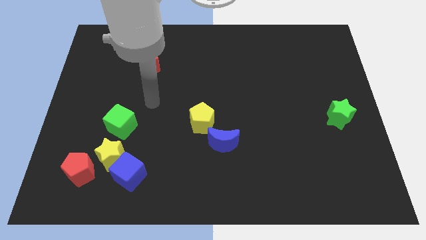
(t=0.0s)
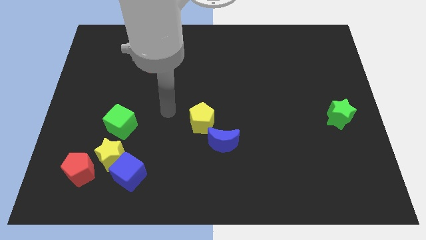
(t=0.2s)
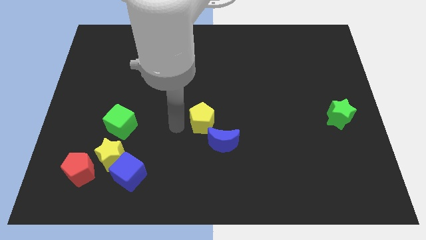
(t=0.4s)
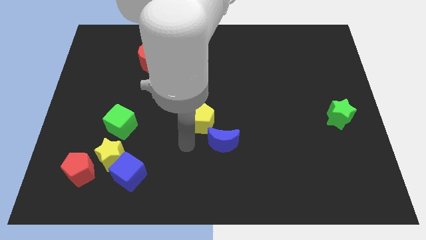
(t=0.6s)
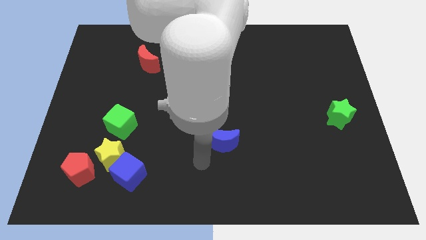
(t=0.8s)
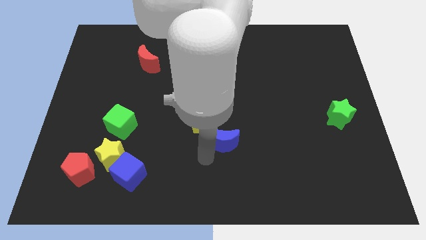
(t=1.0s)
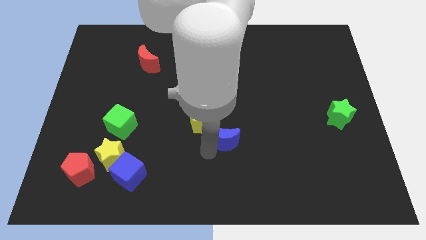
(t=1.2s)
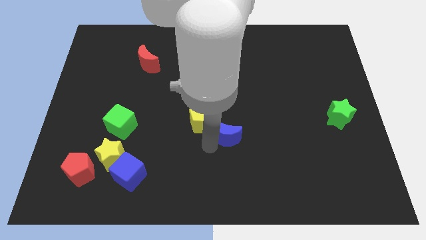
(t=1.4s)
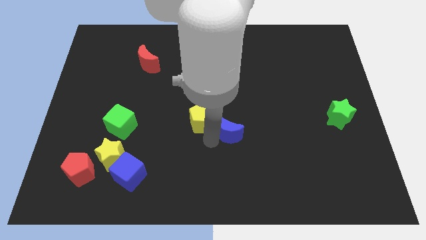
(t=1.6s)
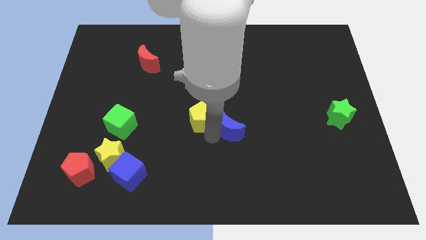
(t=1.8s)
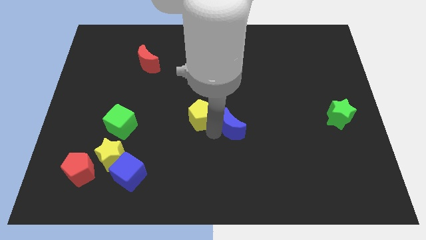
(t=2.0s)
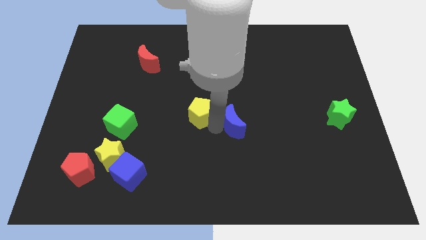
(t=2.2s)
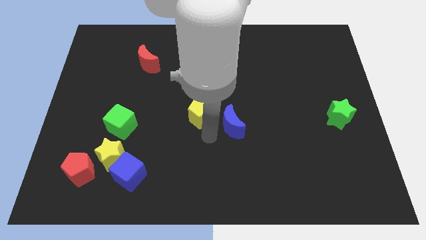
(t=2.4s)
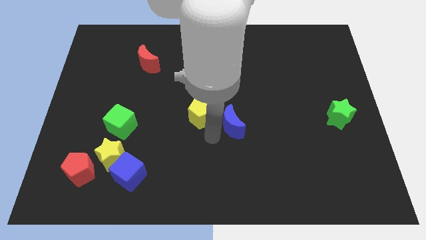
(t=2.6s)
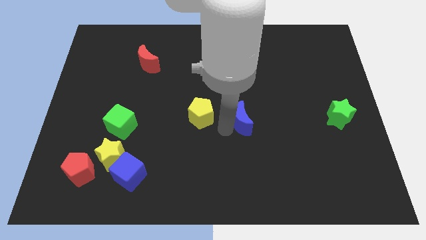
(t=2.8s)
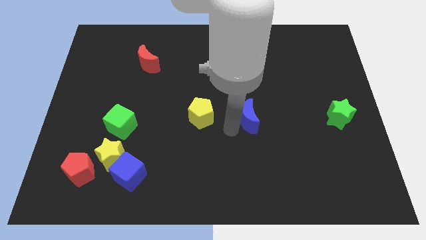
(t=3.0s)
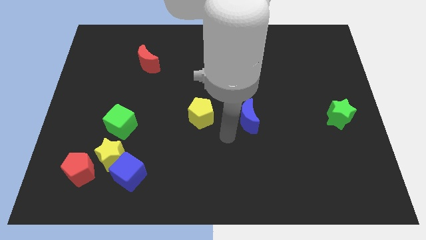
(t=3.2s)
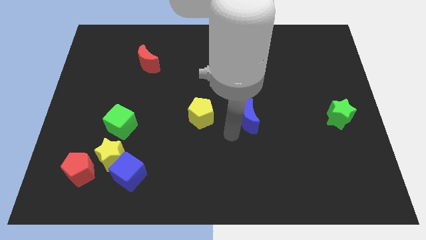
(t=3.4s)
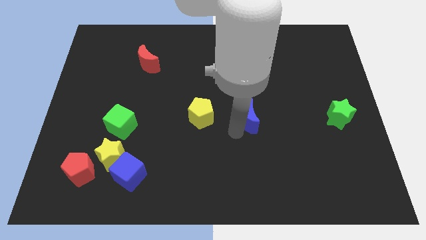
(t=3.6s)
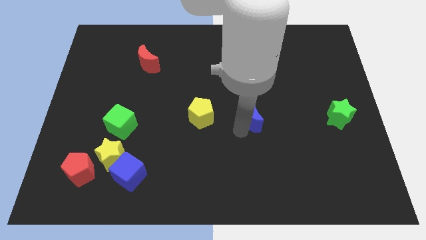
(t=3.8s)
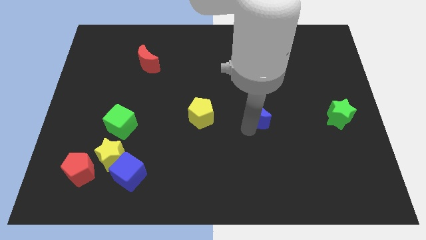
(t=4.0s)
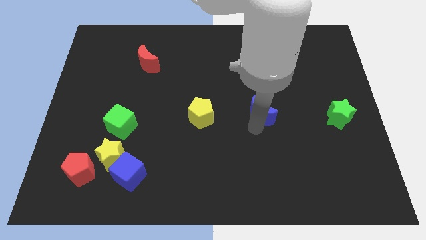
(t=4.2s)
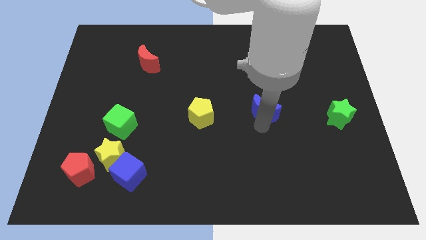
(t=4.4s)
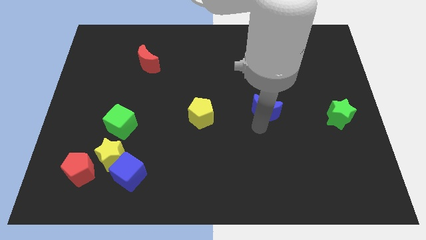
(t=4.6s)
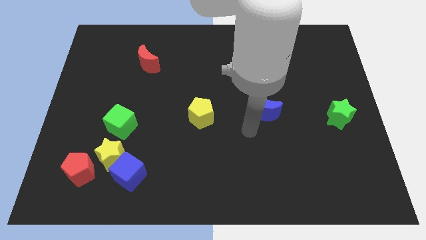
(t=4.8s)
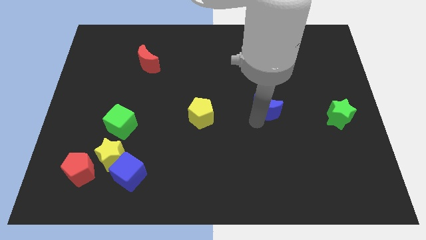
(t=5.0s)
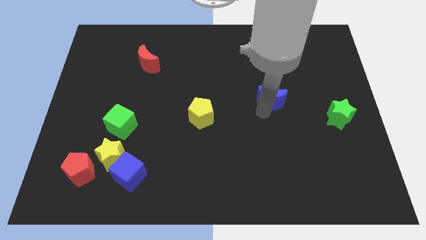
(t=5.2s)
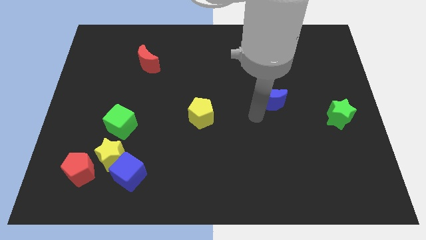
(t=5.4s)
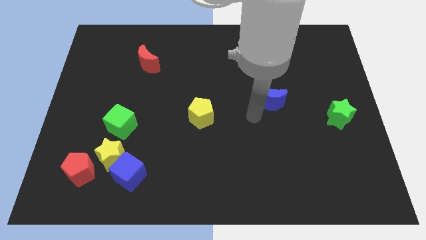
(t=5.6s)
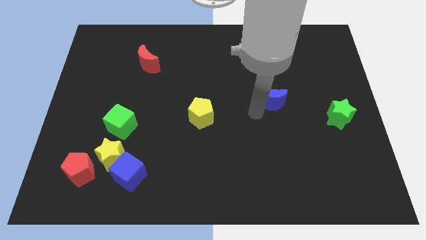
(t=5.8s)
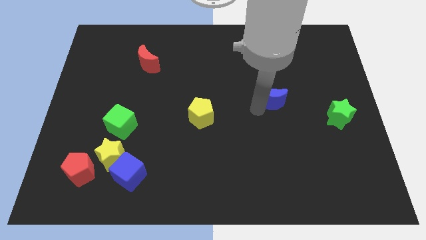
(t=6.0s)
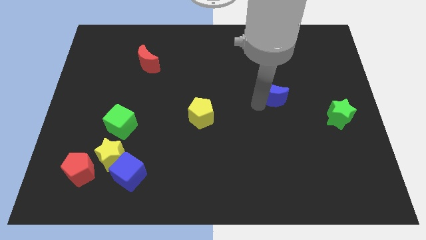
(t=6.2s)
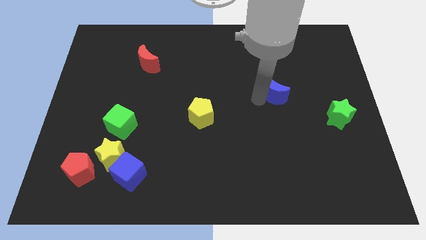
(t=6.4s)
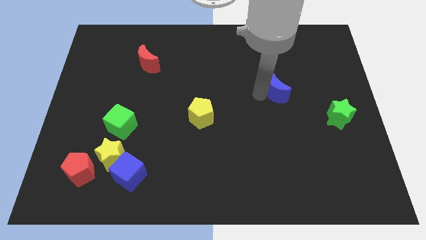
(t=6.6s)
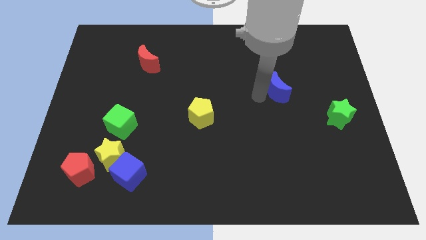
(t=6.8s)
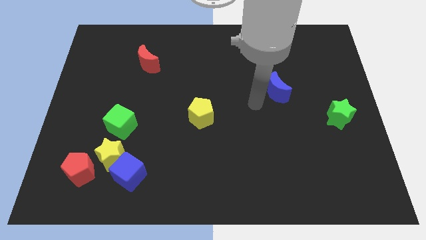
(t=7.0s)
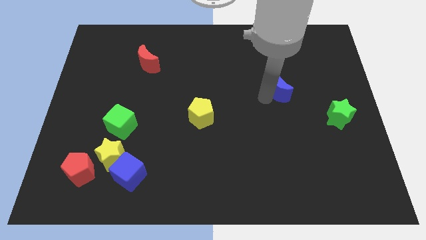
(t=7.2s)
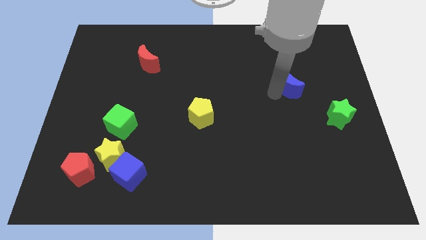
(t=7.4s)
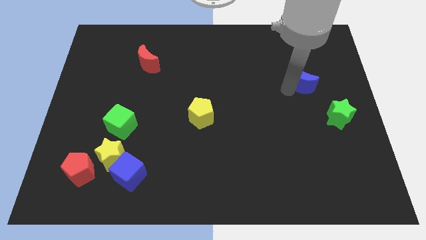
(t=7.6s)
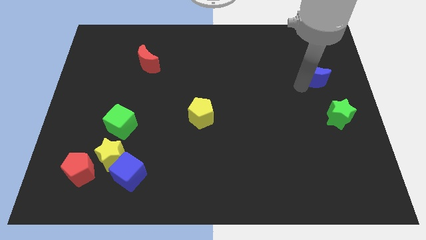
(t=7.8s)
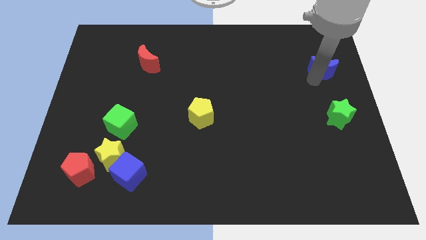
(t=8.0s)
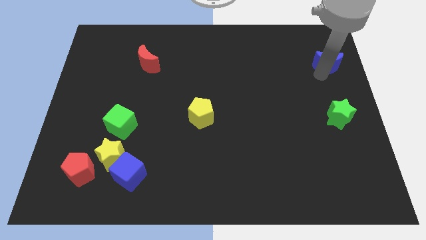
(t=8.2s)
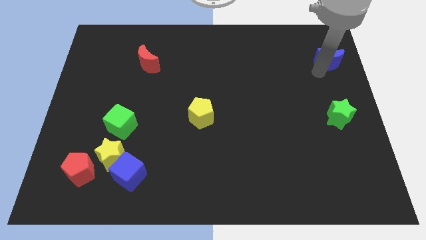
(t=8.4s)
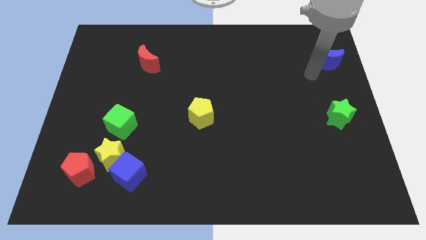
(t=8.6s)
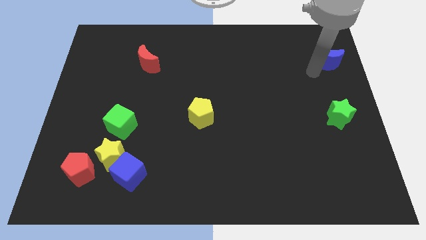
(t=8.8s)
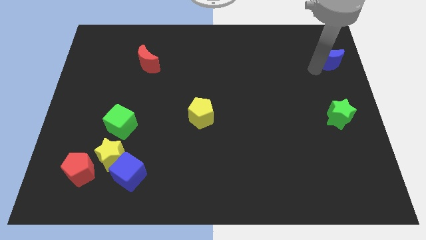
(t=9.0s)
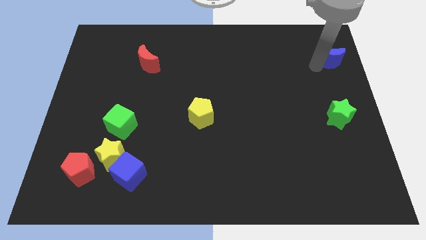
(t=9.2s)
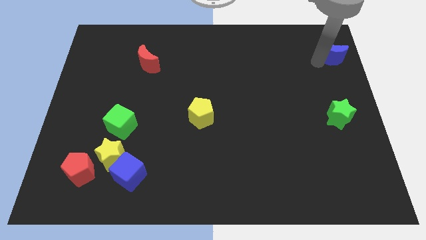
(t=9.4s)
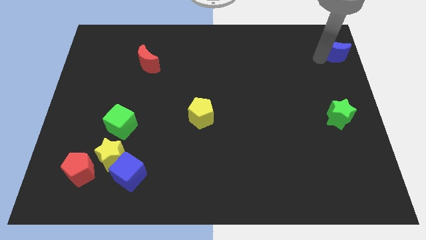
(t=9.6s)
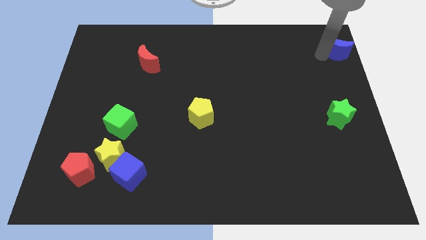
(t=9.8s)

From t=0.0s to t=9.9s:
push the blue moon to the upper right corner

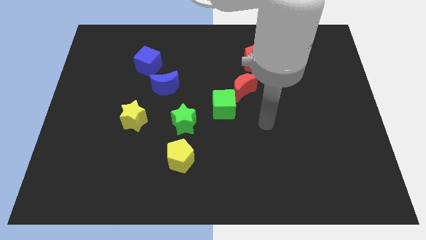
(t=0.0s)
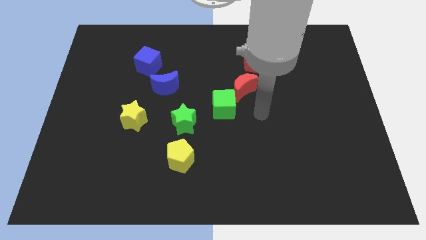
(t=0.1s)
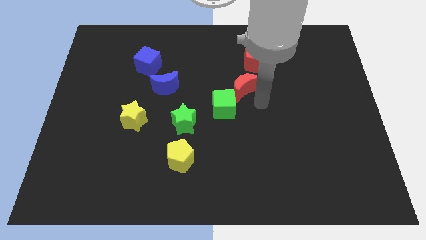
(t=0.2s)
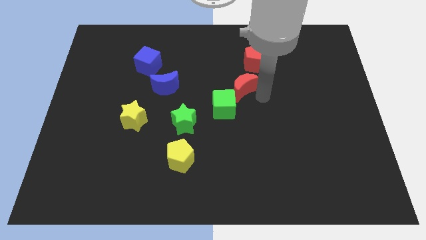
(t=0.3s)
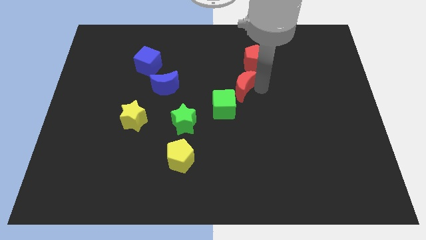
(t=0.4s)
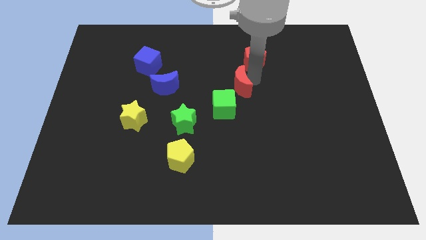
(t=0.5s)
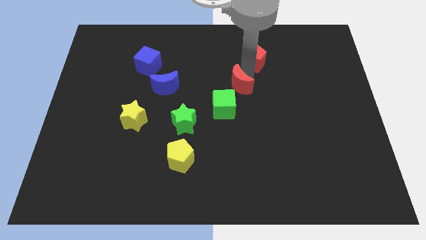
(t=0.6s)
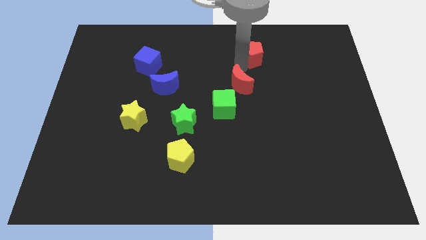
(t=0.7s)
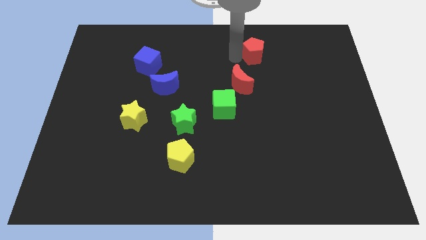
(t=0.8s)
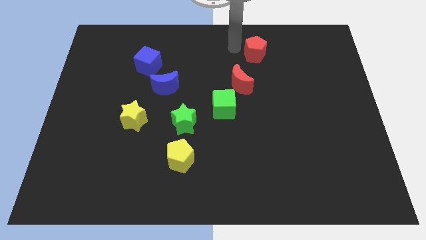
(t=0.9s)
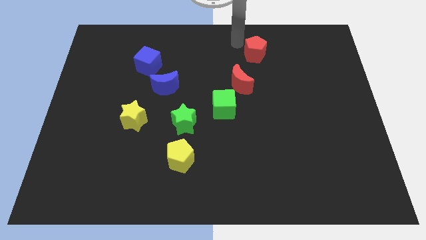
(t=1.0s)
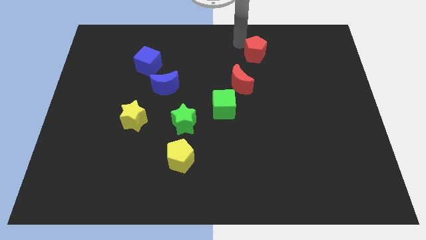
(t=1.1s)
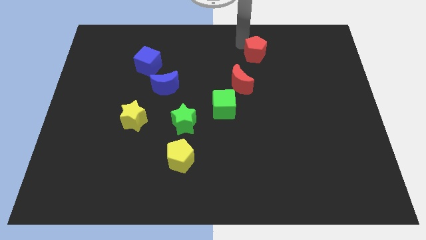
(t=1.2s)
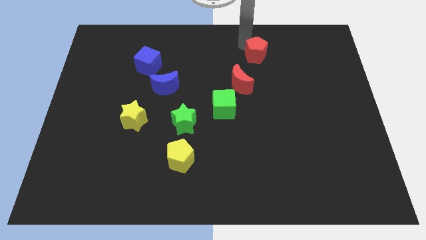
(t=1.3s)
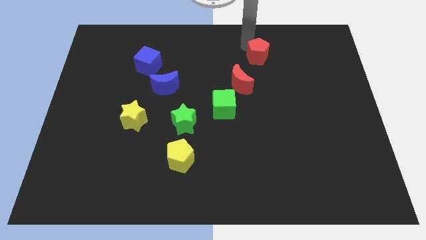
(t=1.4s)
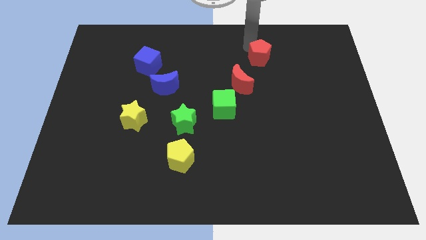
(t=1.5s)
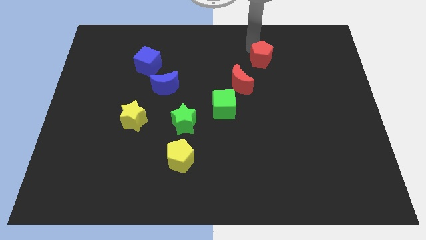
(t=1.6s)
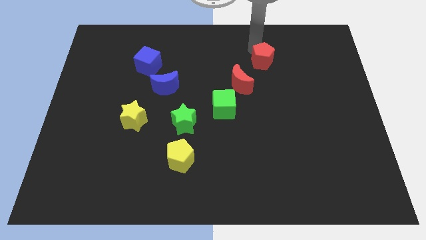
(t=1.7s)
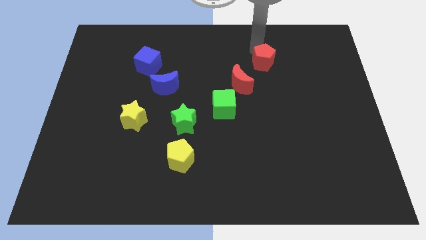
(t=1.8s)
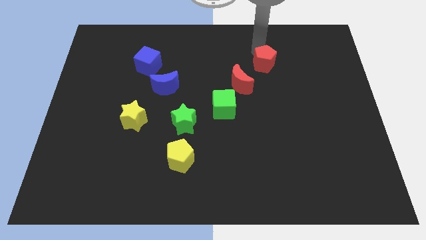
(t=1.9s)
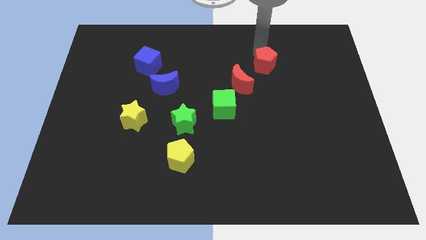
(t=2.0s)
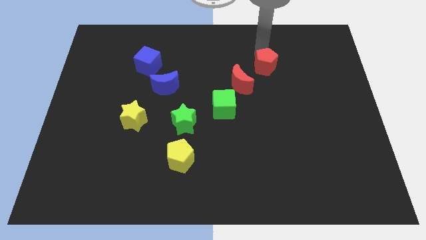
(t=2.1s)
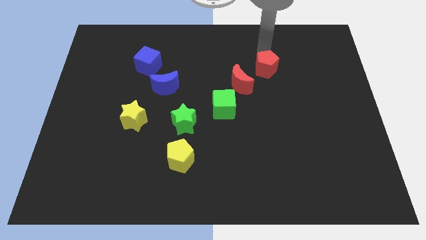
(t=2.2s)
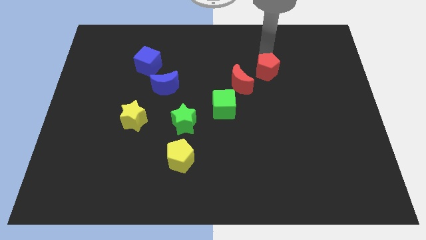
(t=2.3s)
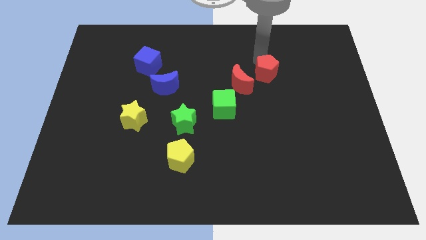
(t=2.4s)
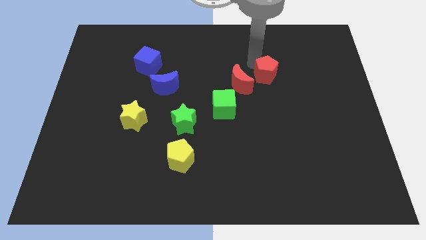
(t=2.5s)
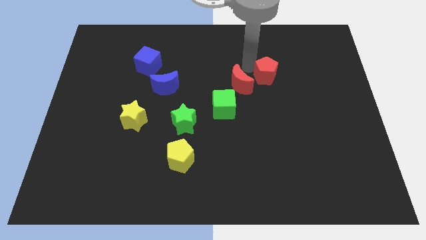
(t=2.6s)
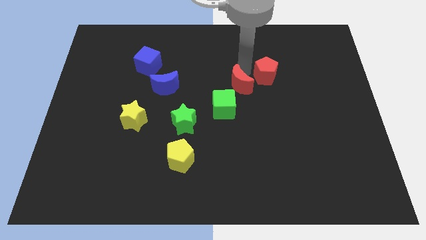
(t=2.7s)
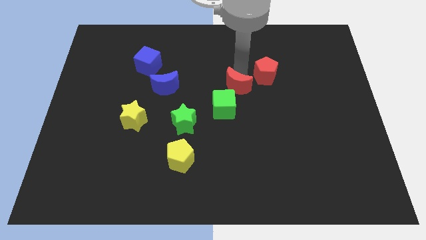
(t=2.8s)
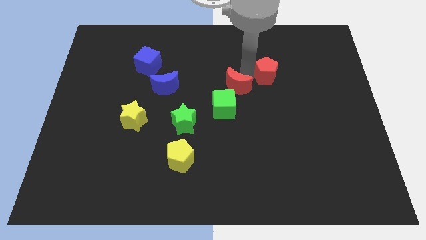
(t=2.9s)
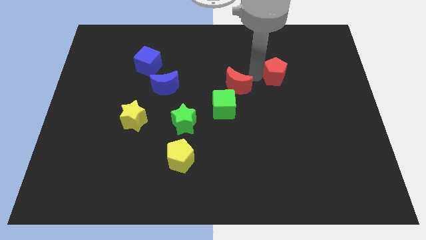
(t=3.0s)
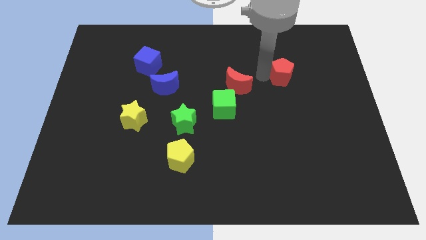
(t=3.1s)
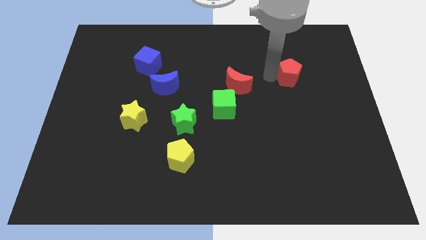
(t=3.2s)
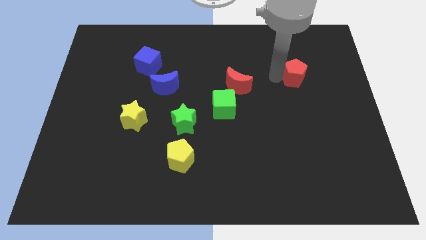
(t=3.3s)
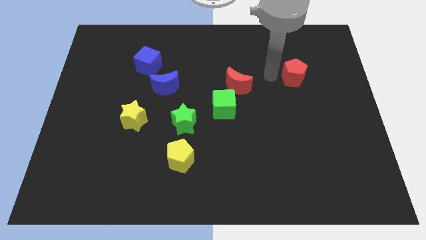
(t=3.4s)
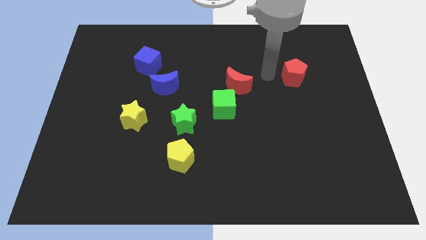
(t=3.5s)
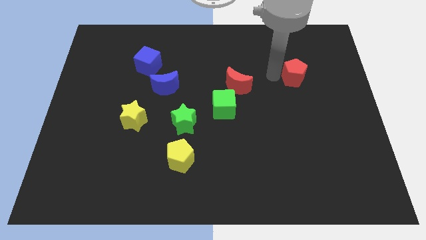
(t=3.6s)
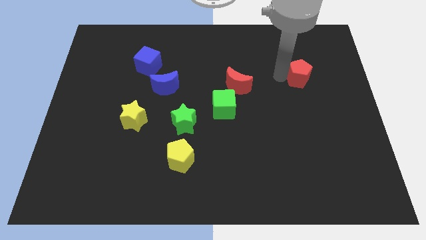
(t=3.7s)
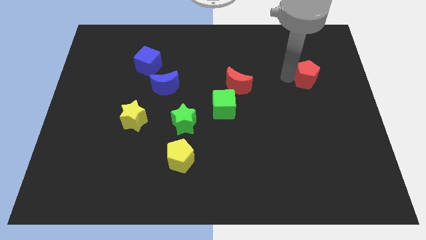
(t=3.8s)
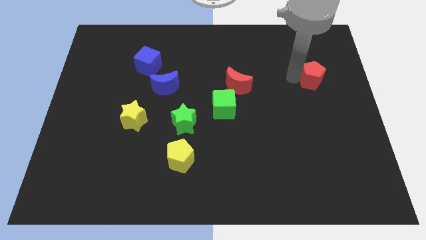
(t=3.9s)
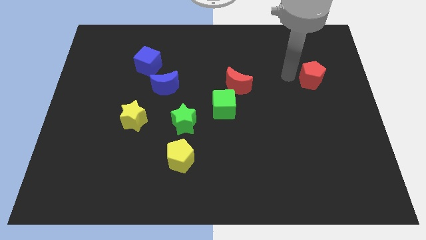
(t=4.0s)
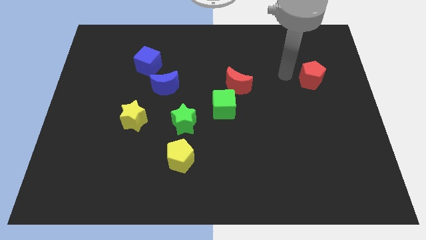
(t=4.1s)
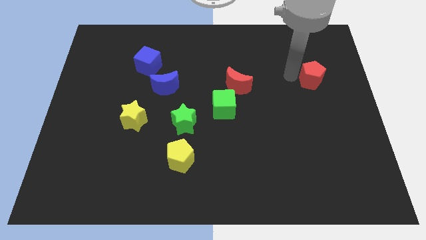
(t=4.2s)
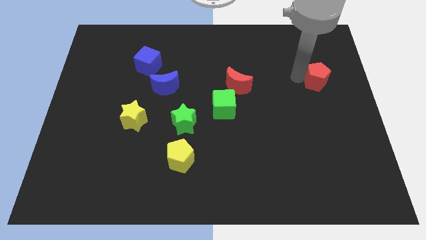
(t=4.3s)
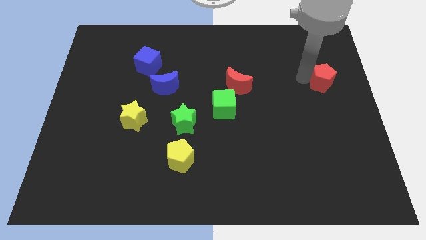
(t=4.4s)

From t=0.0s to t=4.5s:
slide the red pentagon to the center right
